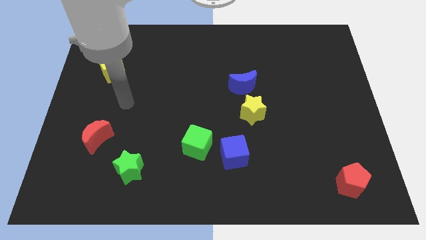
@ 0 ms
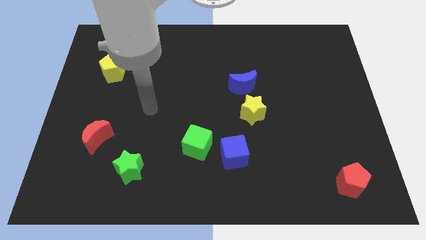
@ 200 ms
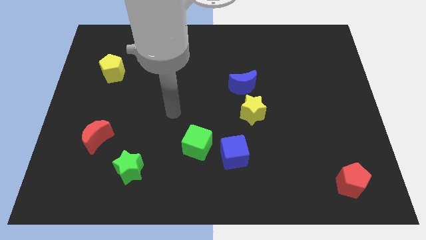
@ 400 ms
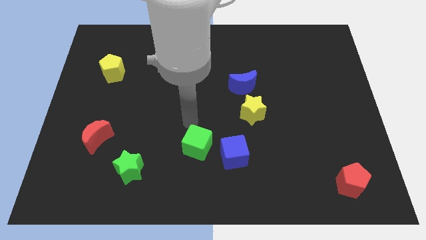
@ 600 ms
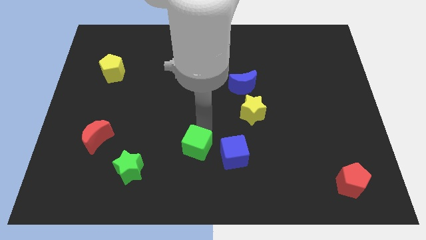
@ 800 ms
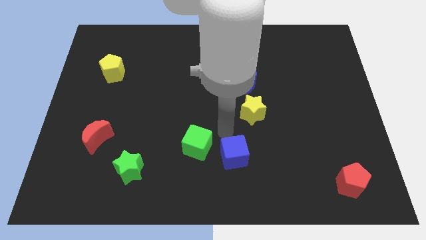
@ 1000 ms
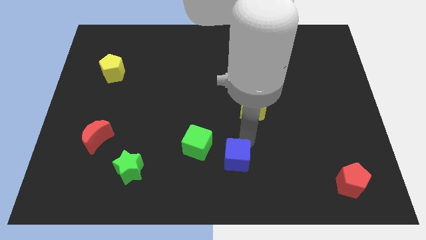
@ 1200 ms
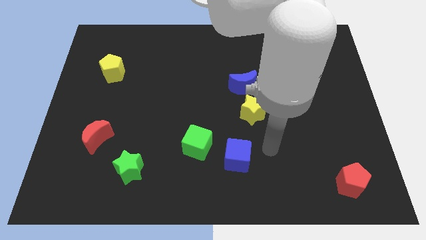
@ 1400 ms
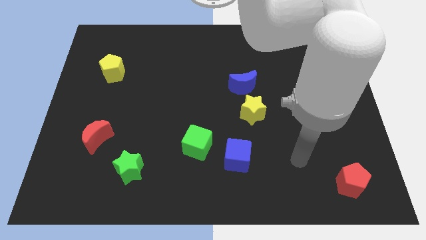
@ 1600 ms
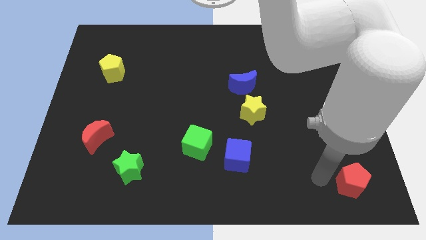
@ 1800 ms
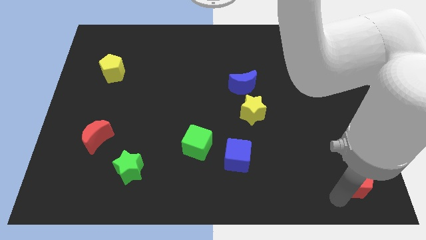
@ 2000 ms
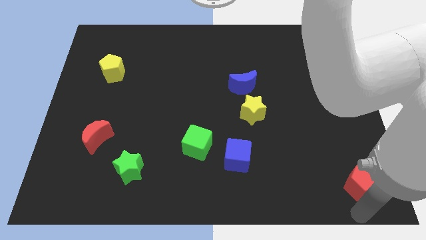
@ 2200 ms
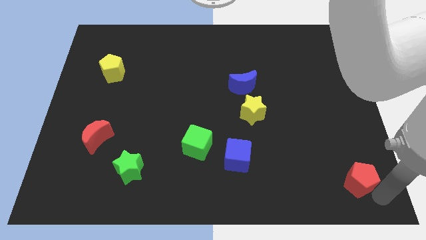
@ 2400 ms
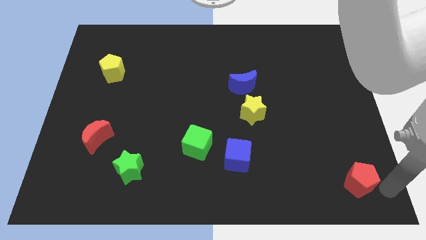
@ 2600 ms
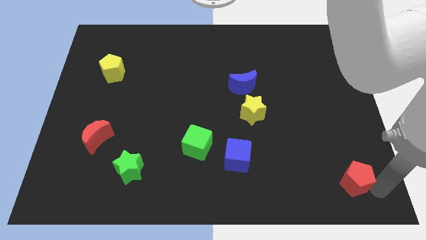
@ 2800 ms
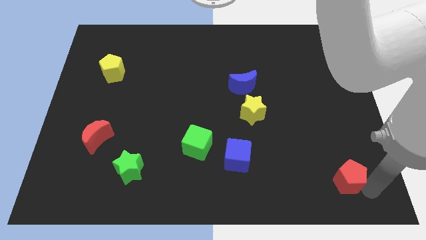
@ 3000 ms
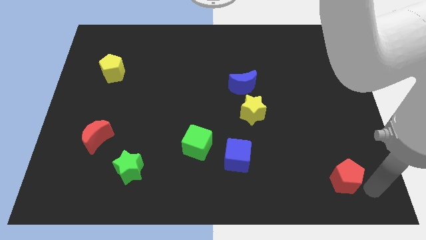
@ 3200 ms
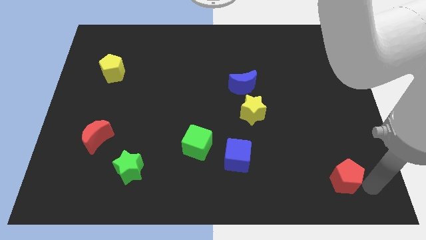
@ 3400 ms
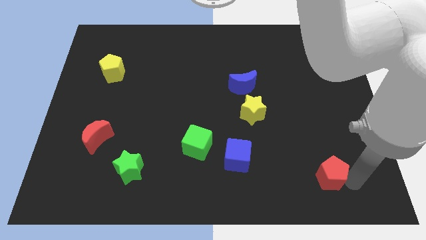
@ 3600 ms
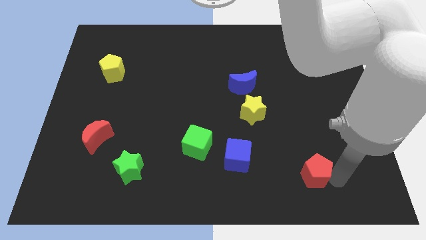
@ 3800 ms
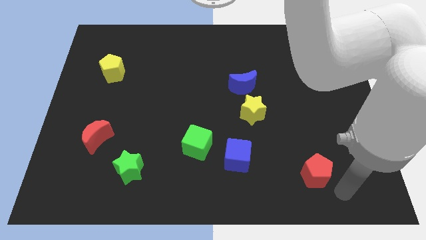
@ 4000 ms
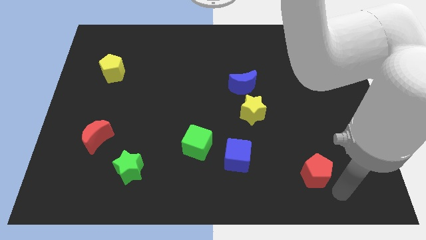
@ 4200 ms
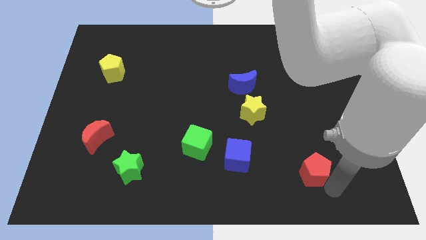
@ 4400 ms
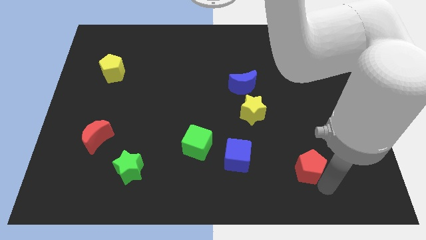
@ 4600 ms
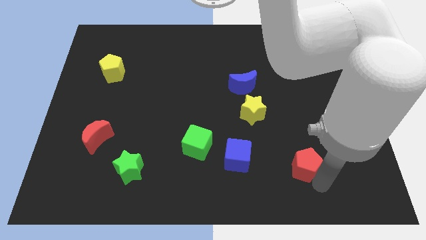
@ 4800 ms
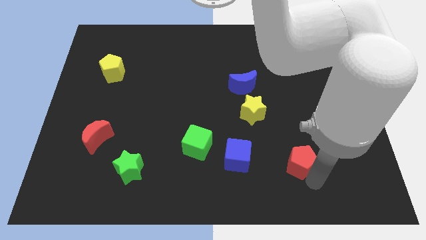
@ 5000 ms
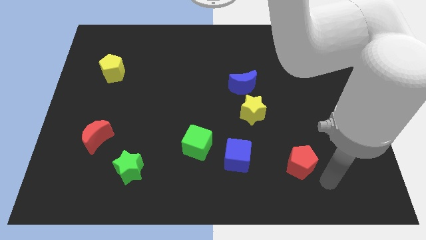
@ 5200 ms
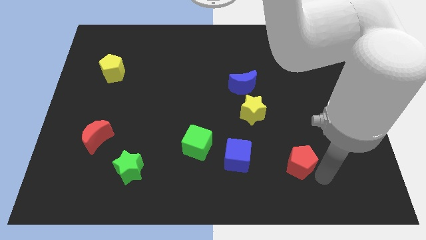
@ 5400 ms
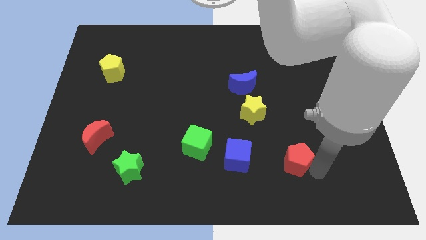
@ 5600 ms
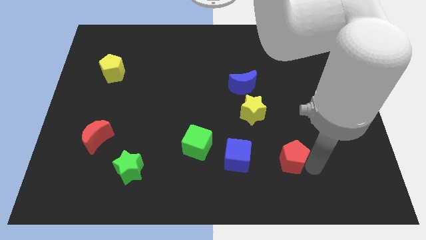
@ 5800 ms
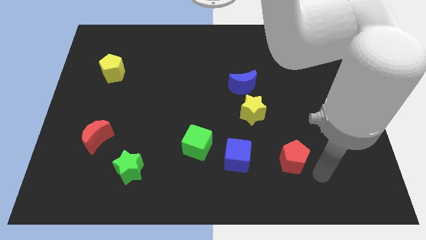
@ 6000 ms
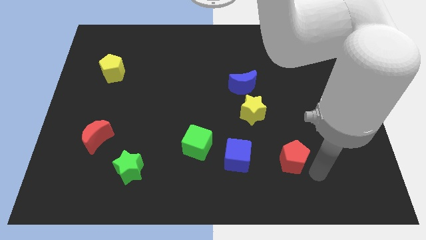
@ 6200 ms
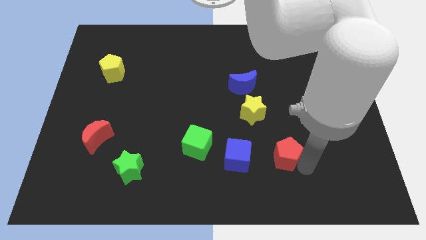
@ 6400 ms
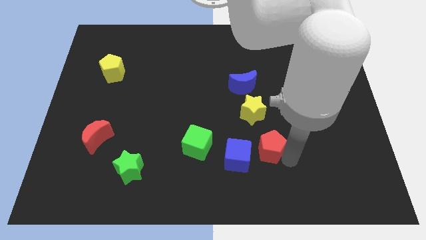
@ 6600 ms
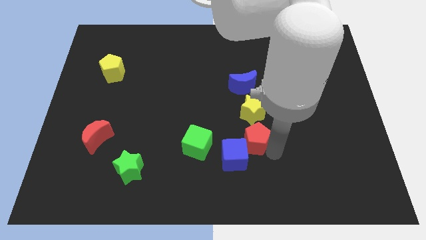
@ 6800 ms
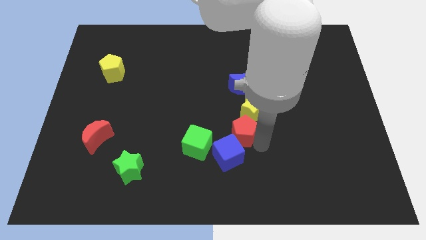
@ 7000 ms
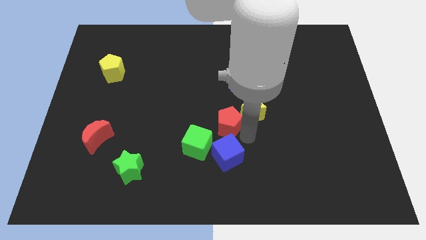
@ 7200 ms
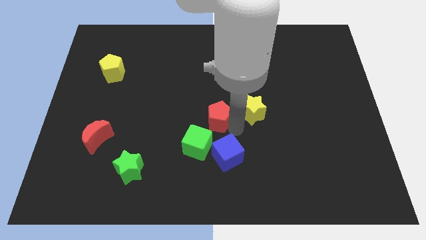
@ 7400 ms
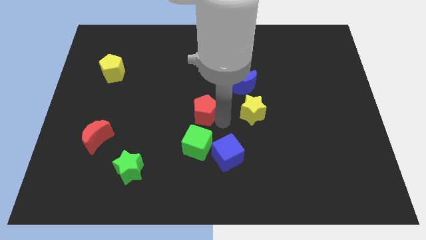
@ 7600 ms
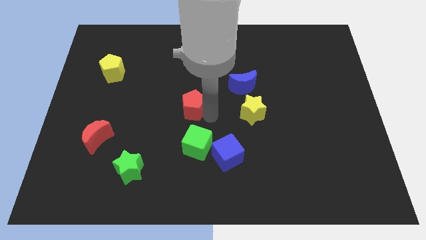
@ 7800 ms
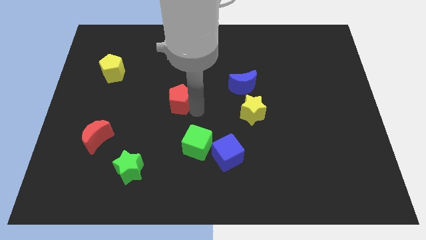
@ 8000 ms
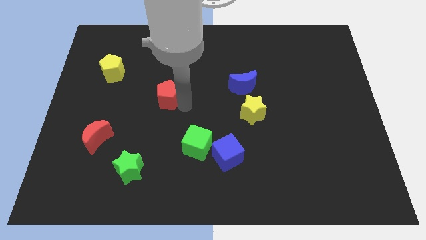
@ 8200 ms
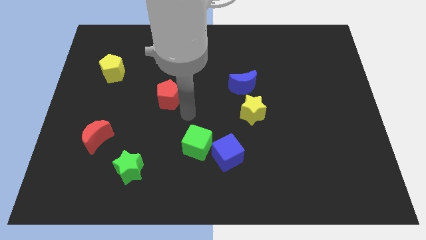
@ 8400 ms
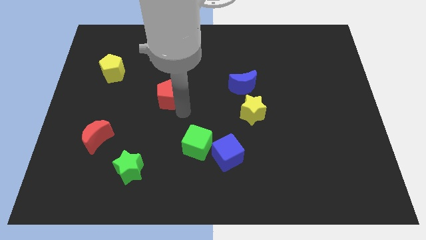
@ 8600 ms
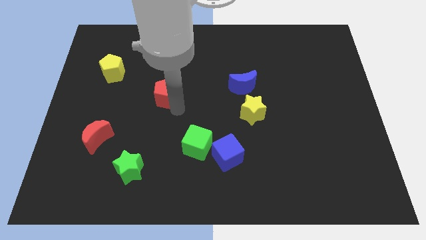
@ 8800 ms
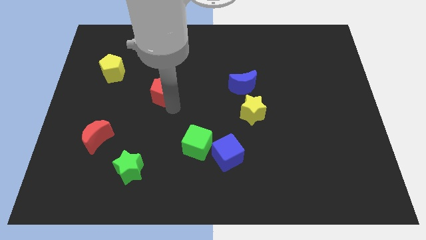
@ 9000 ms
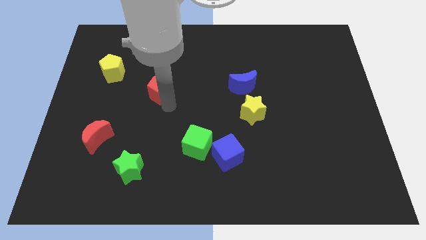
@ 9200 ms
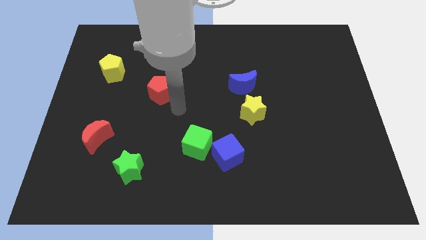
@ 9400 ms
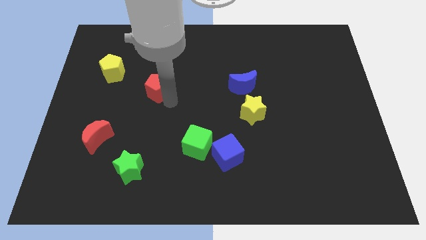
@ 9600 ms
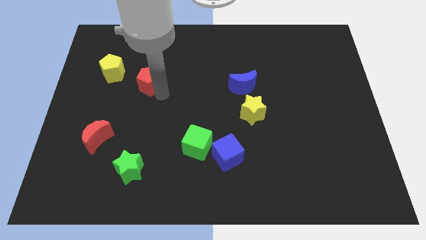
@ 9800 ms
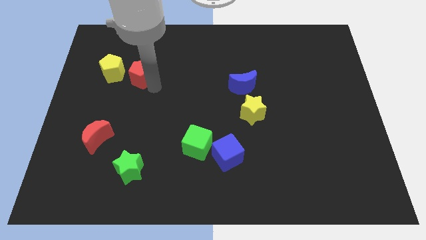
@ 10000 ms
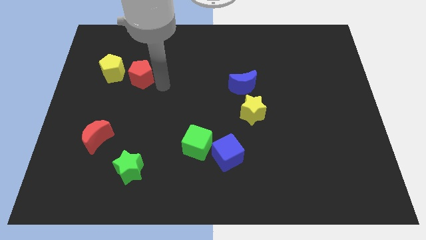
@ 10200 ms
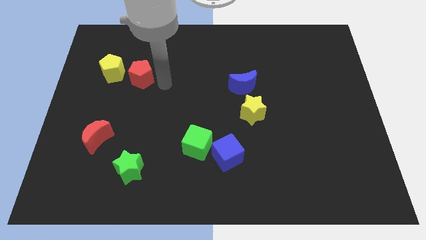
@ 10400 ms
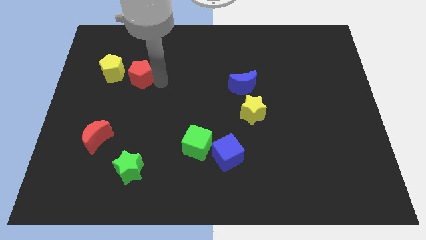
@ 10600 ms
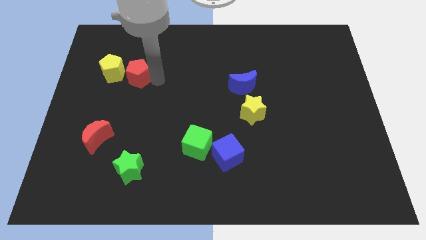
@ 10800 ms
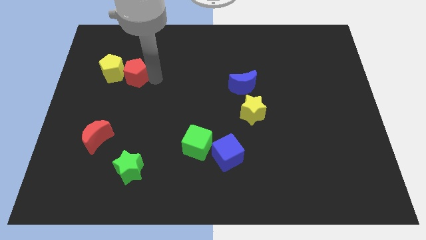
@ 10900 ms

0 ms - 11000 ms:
push the red pentagon towards the yellow pentagon

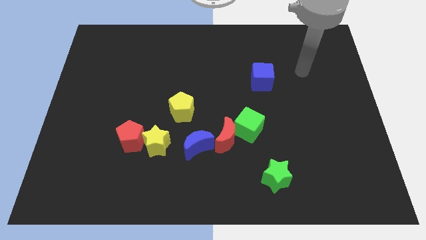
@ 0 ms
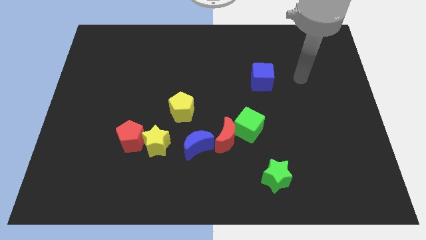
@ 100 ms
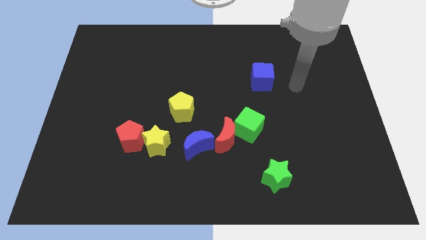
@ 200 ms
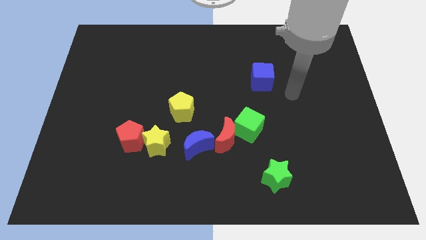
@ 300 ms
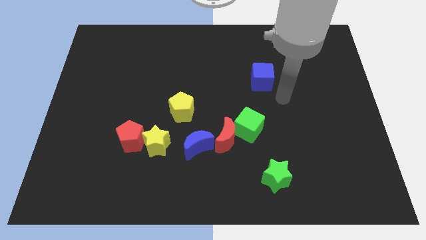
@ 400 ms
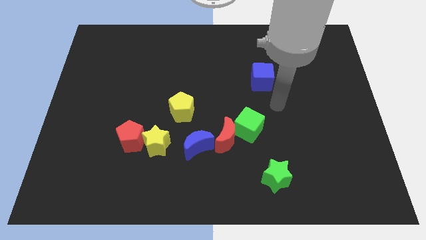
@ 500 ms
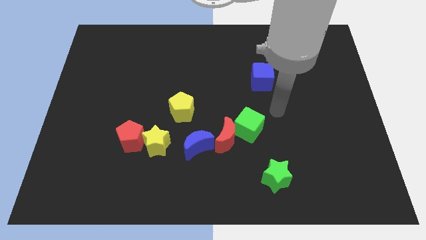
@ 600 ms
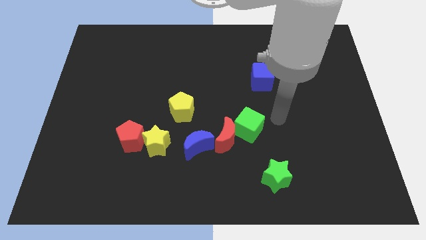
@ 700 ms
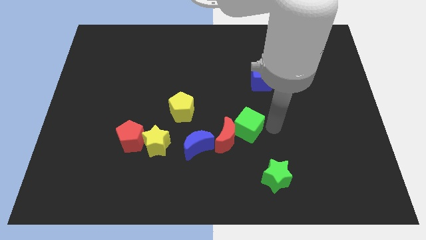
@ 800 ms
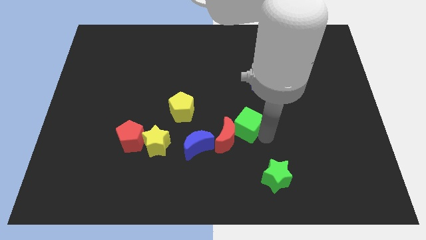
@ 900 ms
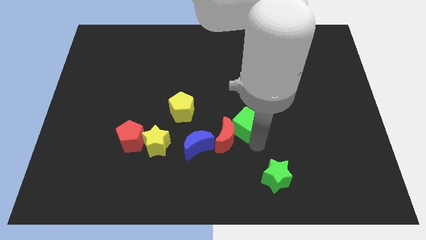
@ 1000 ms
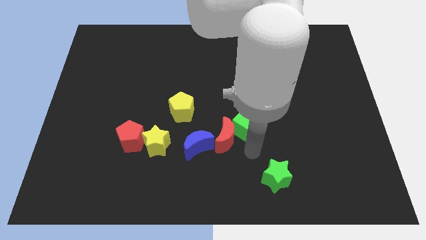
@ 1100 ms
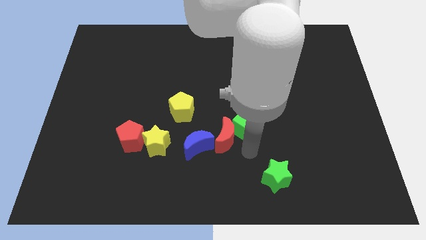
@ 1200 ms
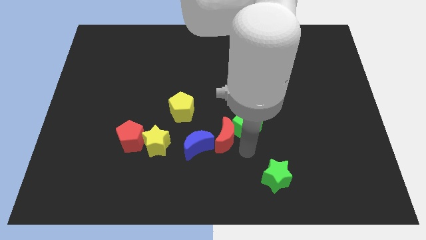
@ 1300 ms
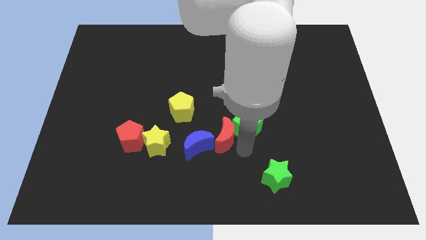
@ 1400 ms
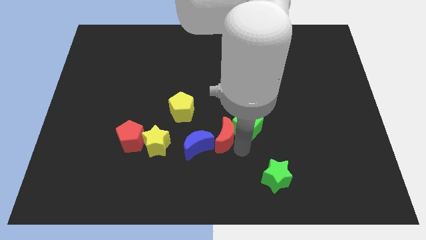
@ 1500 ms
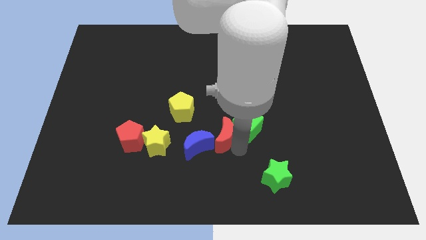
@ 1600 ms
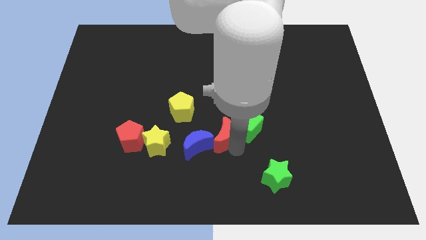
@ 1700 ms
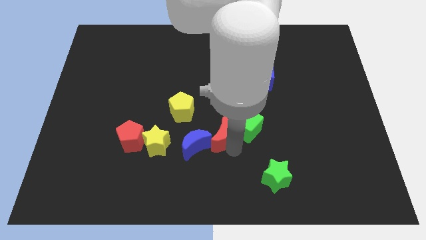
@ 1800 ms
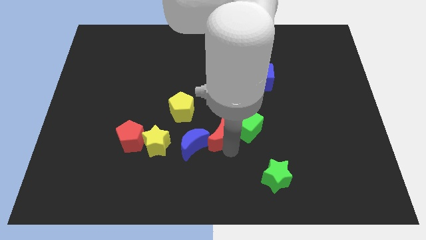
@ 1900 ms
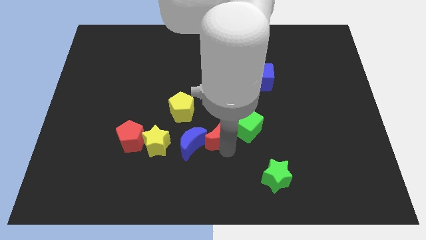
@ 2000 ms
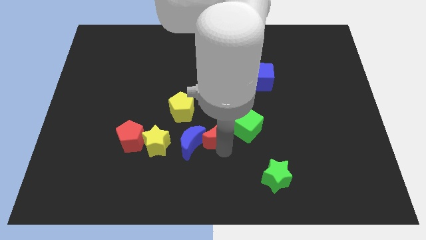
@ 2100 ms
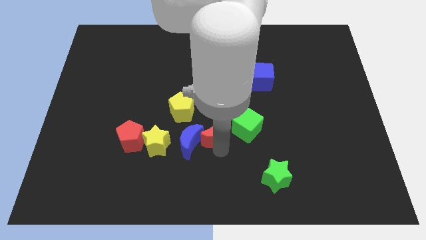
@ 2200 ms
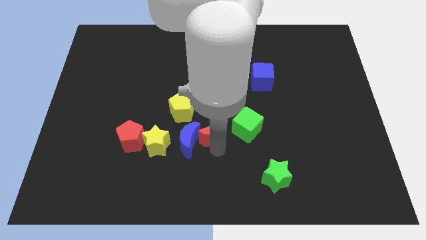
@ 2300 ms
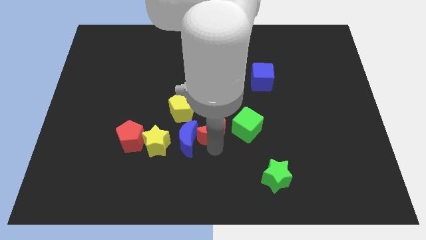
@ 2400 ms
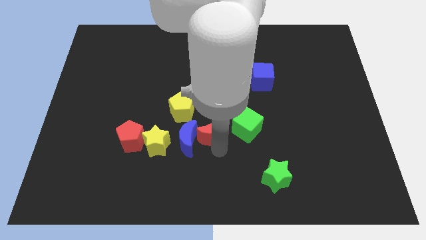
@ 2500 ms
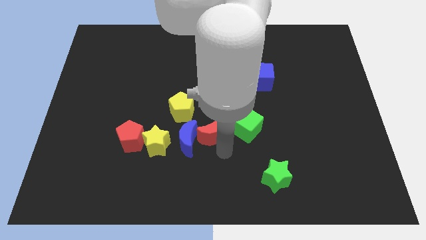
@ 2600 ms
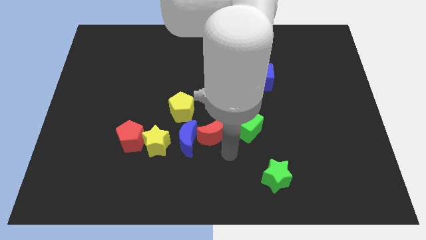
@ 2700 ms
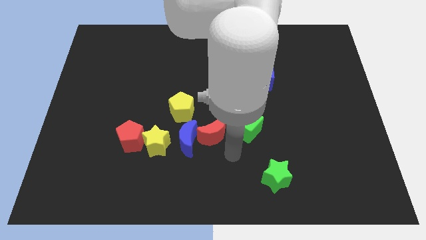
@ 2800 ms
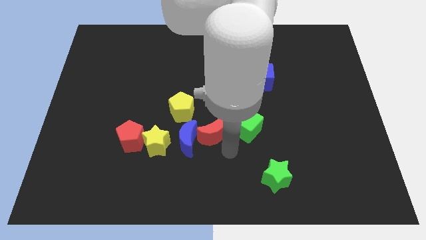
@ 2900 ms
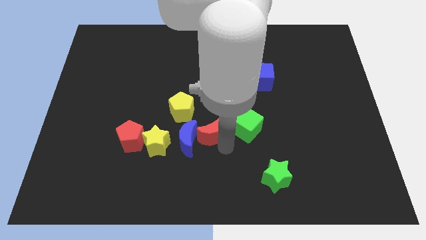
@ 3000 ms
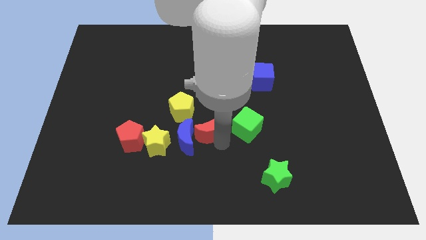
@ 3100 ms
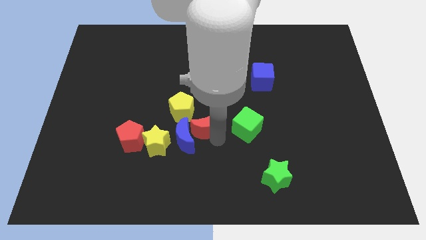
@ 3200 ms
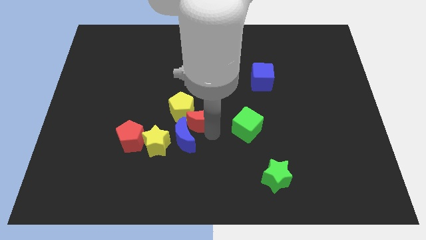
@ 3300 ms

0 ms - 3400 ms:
slide the red moon close to the yellow pentagon
